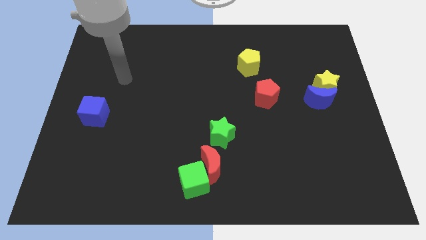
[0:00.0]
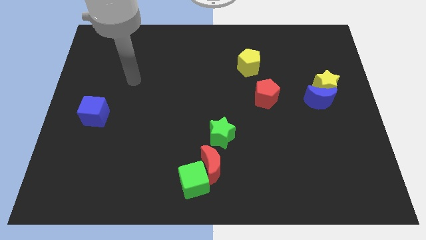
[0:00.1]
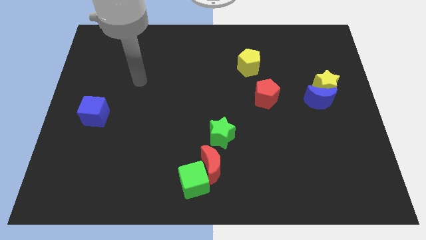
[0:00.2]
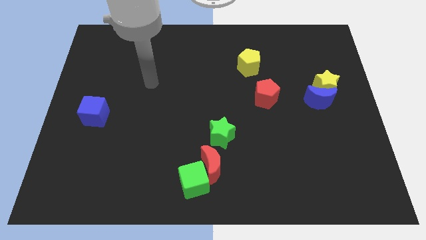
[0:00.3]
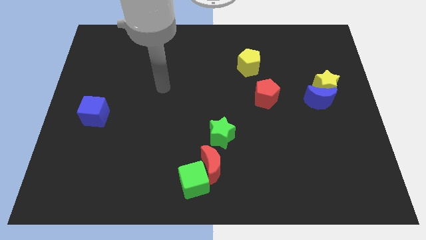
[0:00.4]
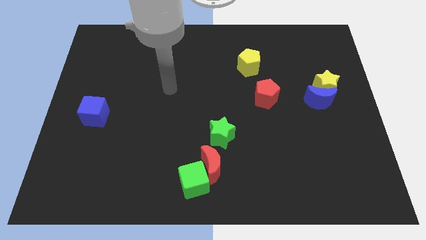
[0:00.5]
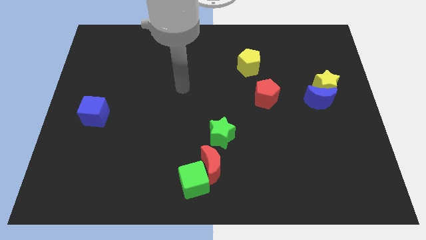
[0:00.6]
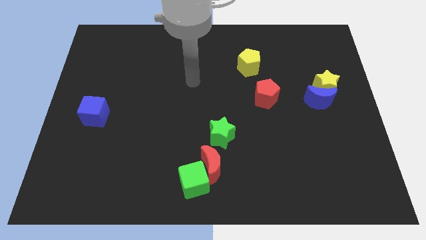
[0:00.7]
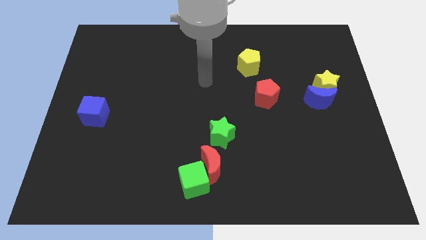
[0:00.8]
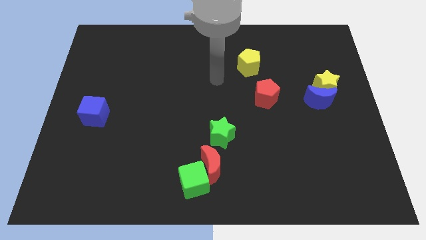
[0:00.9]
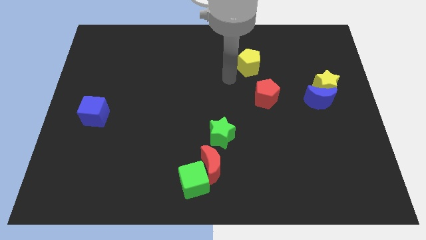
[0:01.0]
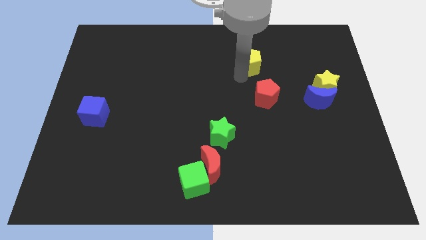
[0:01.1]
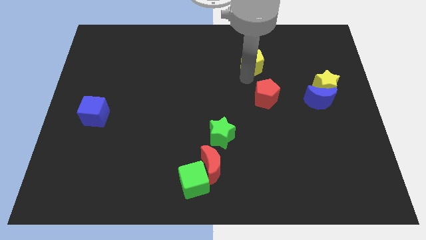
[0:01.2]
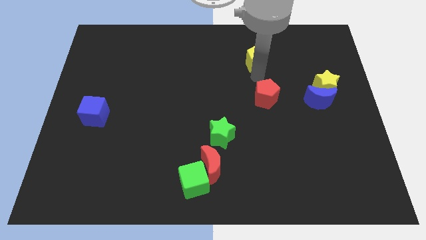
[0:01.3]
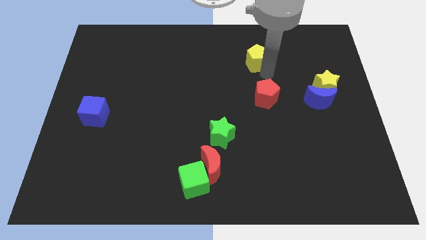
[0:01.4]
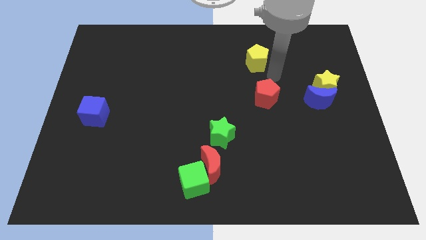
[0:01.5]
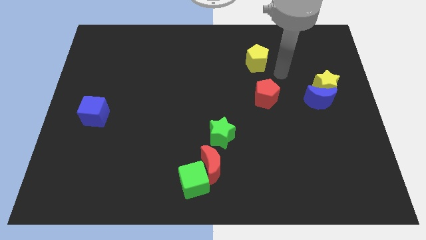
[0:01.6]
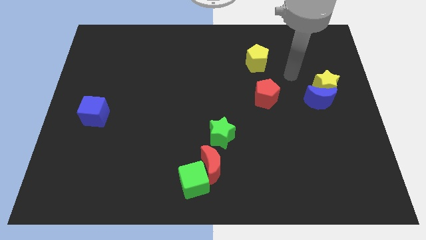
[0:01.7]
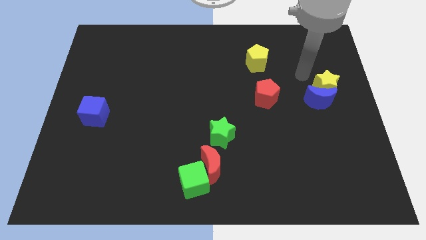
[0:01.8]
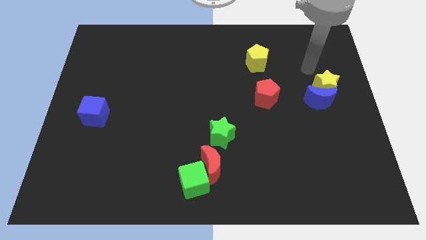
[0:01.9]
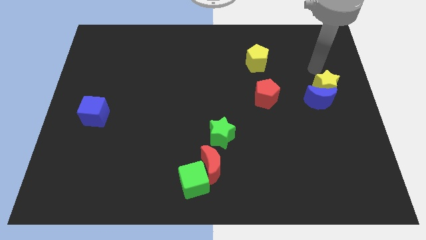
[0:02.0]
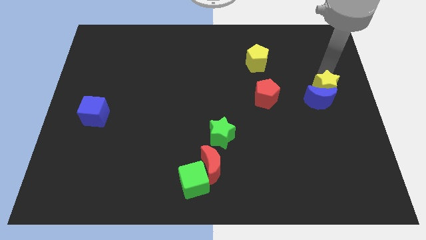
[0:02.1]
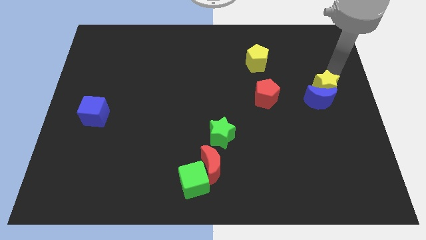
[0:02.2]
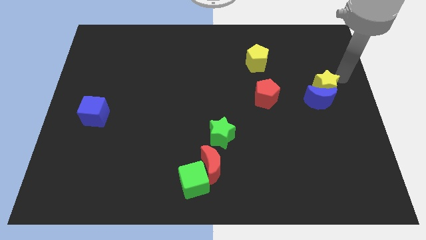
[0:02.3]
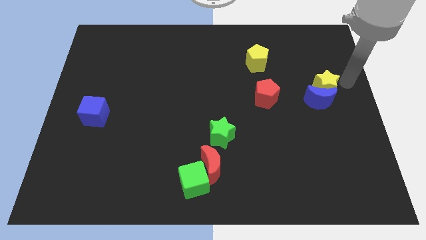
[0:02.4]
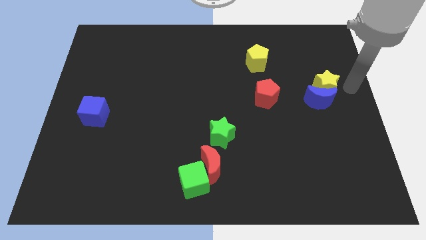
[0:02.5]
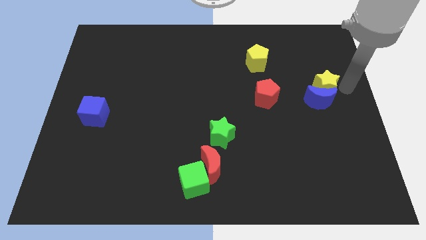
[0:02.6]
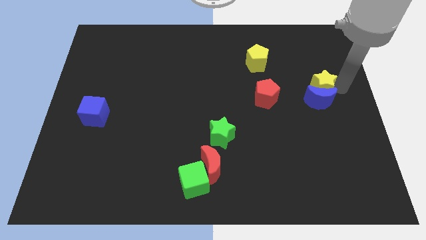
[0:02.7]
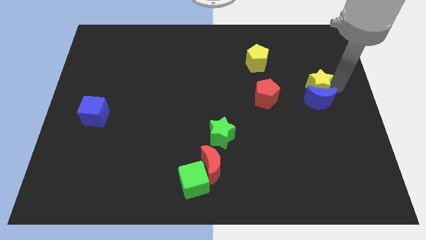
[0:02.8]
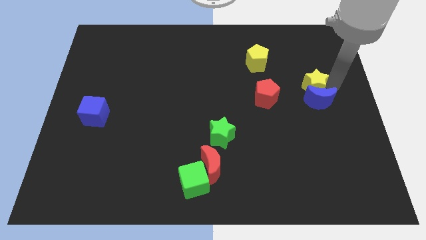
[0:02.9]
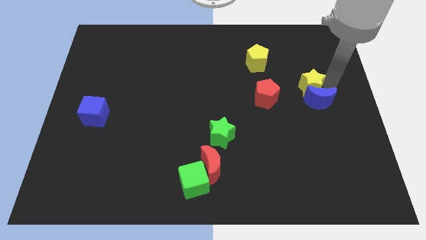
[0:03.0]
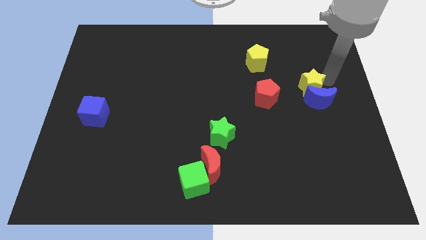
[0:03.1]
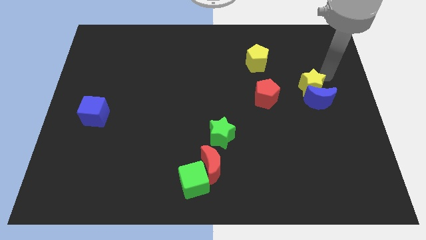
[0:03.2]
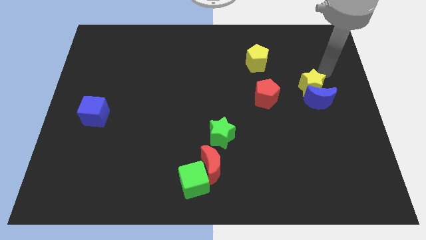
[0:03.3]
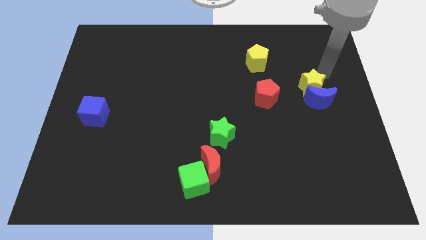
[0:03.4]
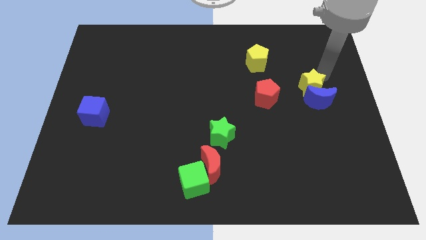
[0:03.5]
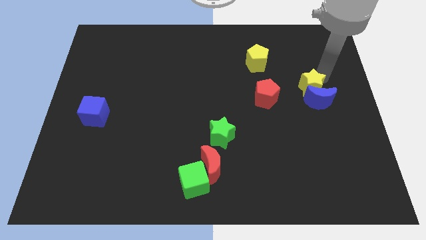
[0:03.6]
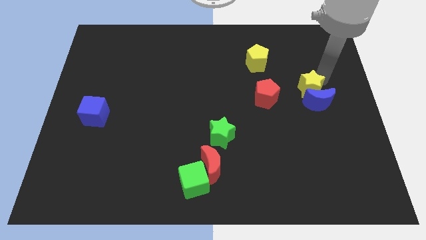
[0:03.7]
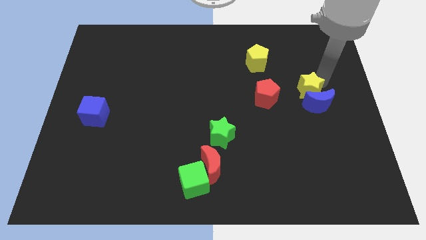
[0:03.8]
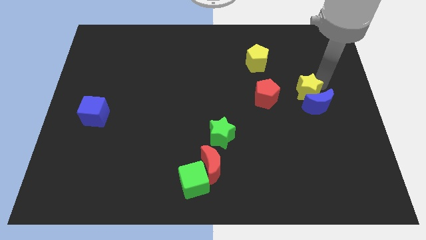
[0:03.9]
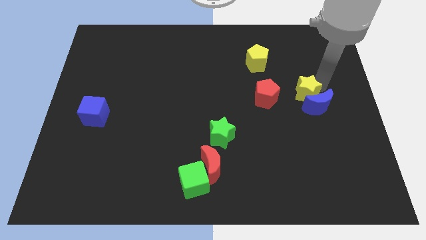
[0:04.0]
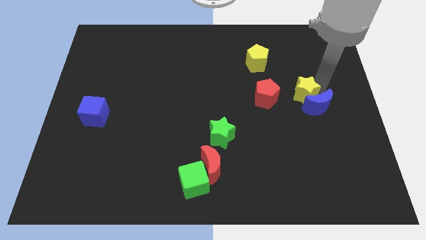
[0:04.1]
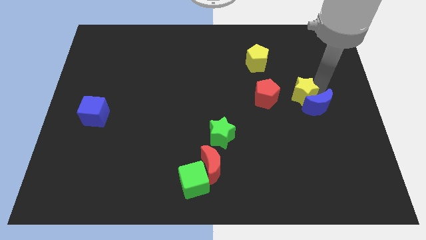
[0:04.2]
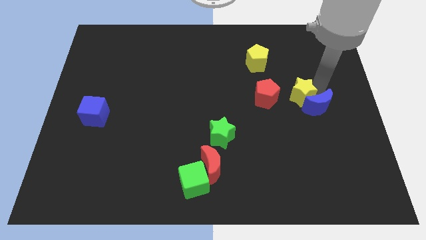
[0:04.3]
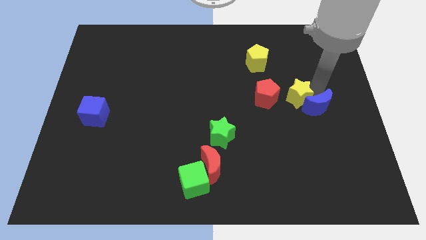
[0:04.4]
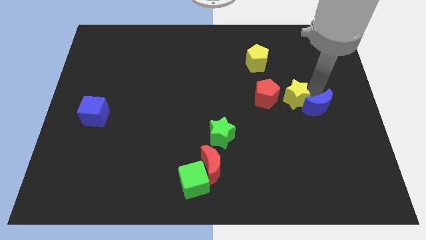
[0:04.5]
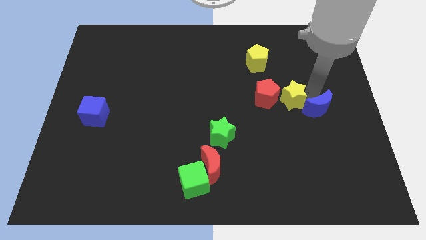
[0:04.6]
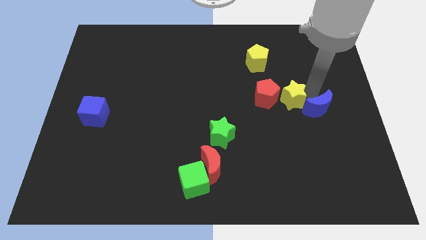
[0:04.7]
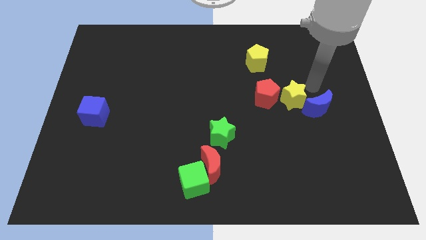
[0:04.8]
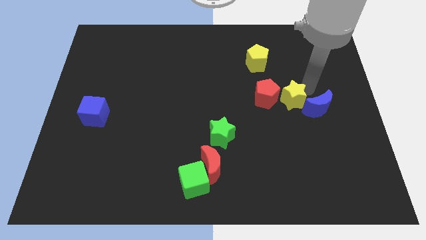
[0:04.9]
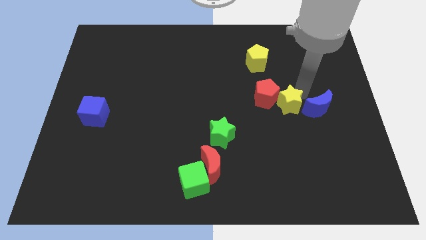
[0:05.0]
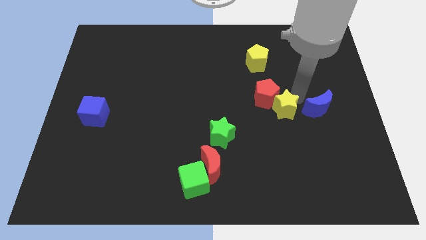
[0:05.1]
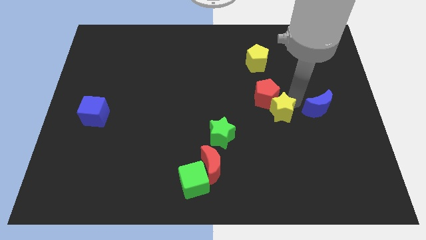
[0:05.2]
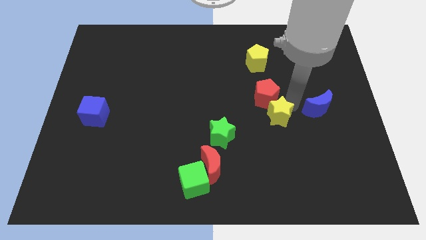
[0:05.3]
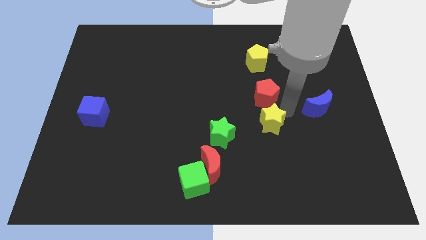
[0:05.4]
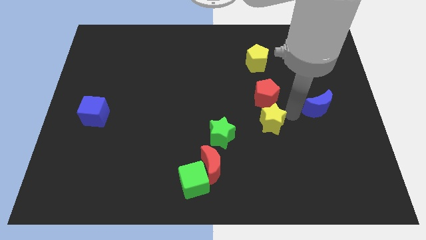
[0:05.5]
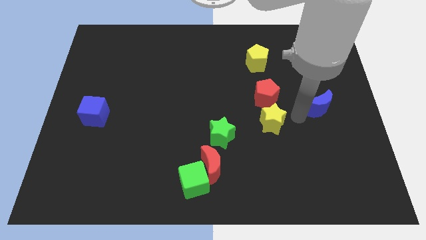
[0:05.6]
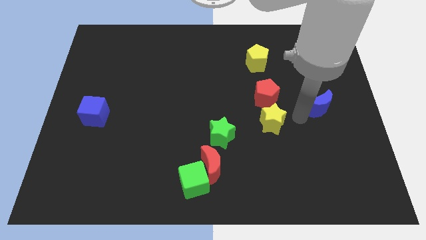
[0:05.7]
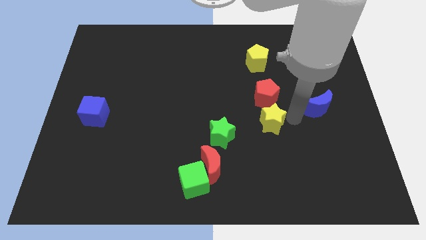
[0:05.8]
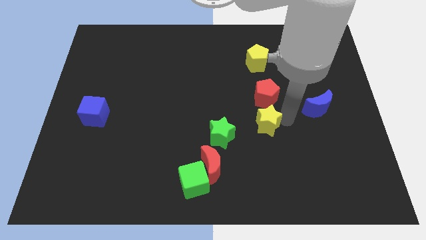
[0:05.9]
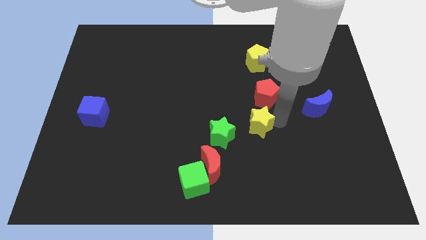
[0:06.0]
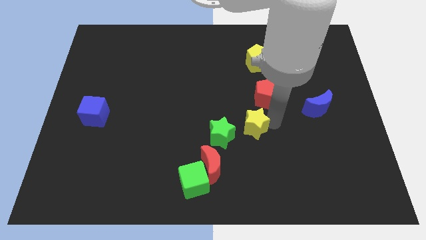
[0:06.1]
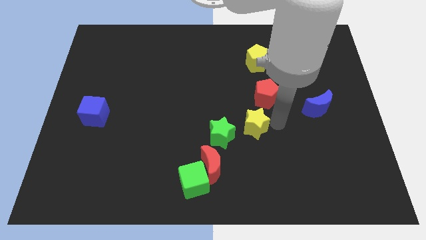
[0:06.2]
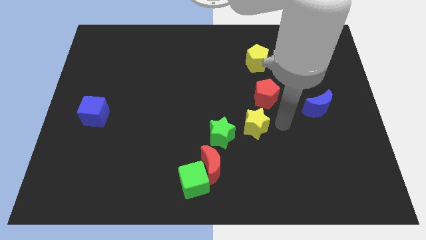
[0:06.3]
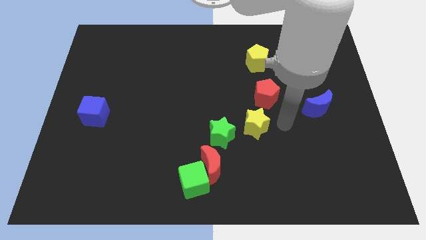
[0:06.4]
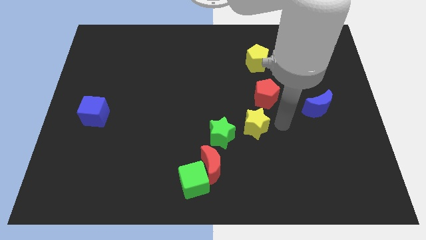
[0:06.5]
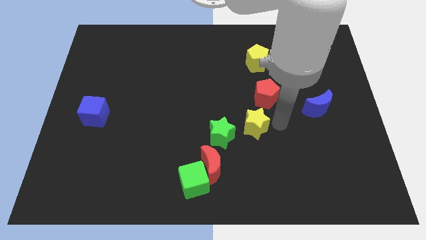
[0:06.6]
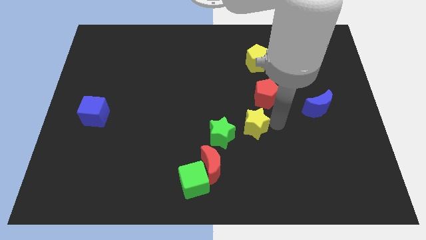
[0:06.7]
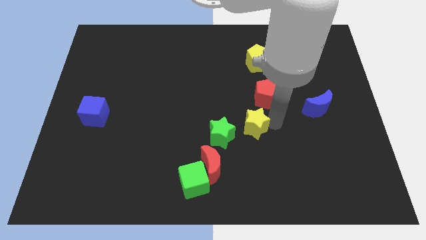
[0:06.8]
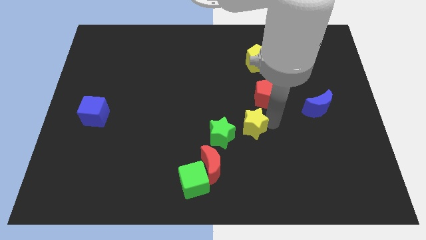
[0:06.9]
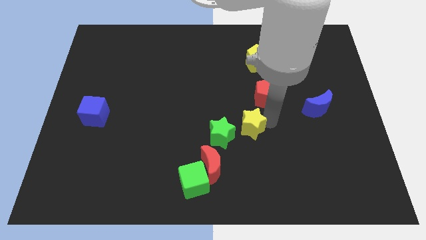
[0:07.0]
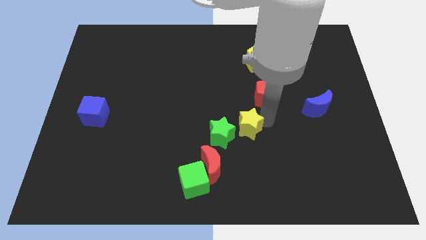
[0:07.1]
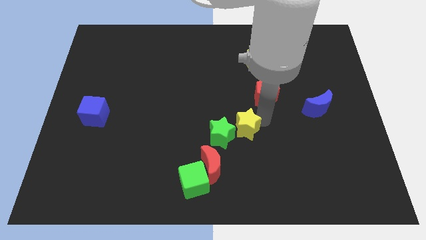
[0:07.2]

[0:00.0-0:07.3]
move the yellow star close to the green star
